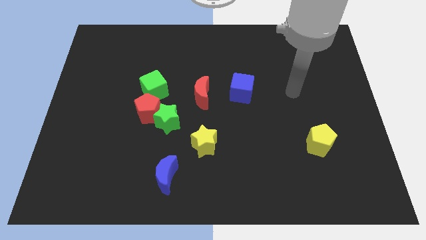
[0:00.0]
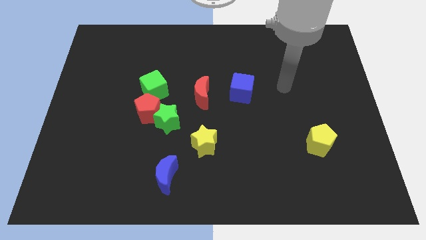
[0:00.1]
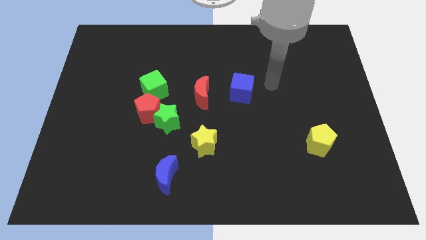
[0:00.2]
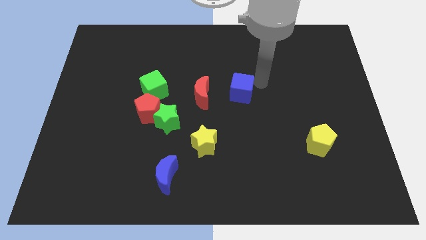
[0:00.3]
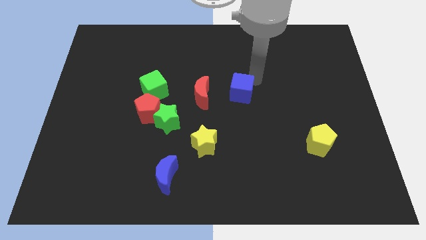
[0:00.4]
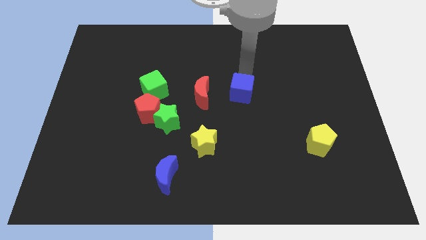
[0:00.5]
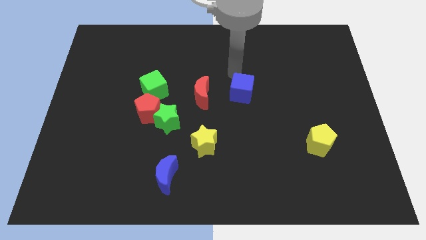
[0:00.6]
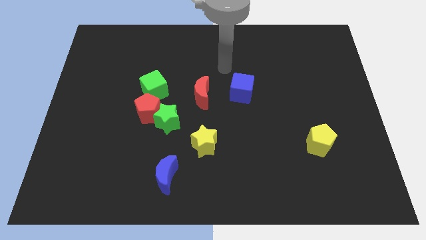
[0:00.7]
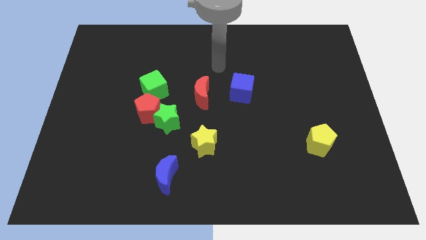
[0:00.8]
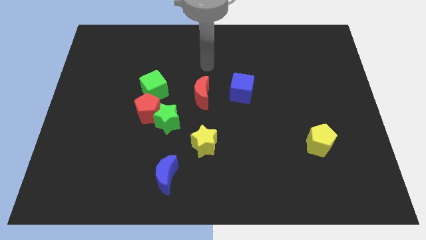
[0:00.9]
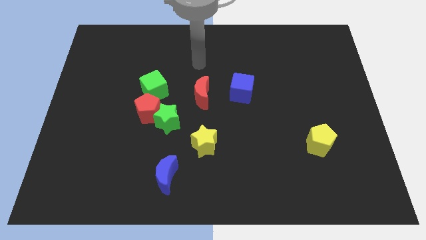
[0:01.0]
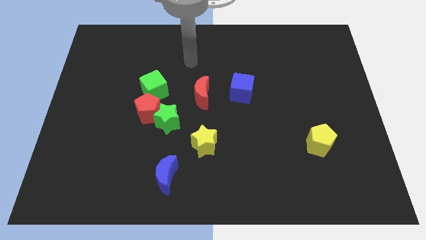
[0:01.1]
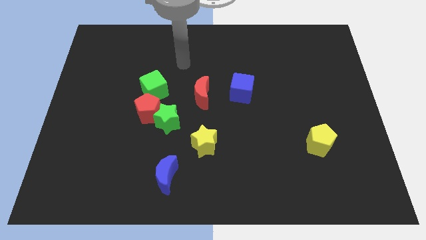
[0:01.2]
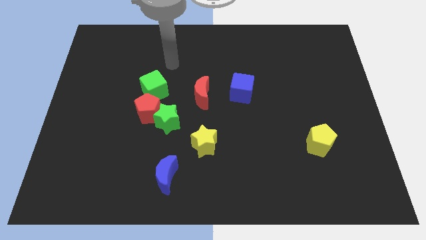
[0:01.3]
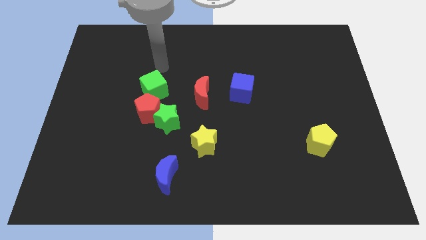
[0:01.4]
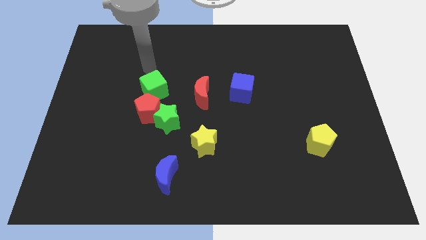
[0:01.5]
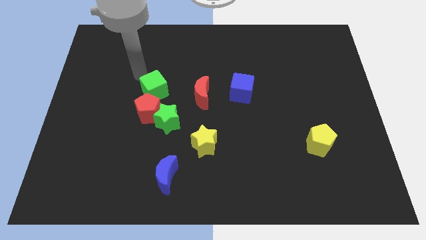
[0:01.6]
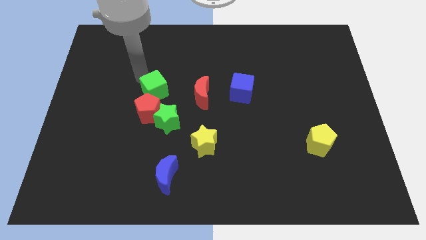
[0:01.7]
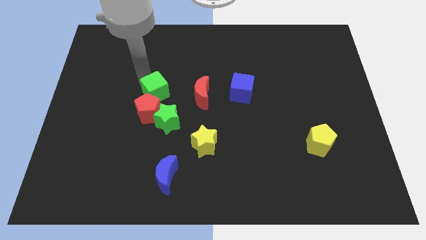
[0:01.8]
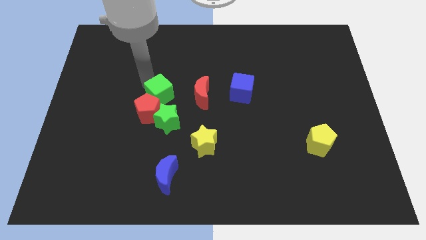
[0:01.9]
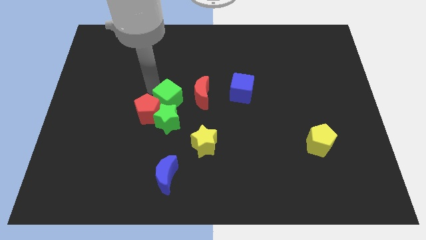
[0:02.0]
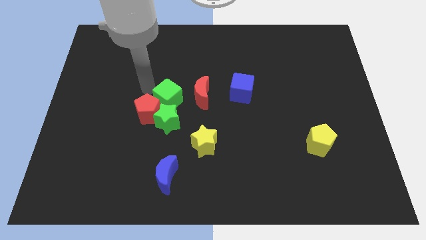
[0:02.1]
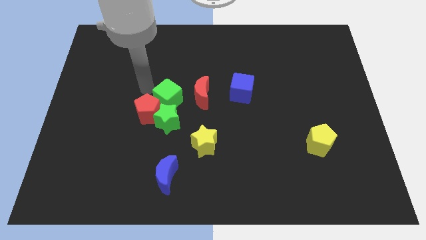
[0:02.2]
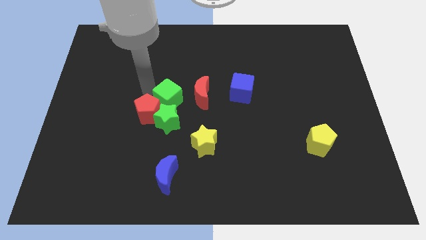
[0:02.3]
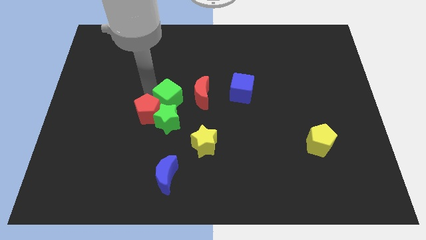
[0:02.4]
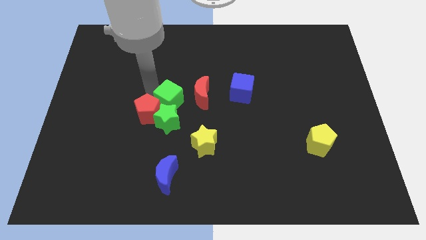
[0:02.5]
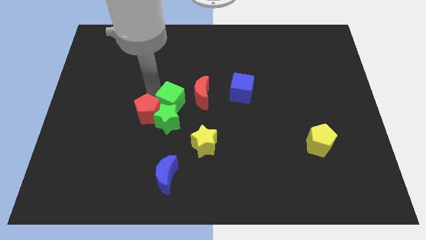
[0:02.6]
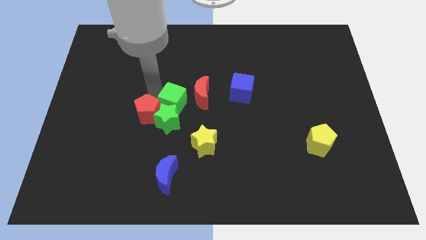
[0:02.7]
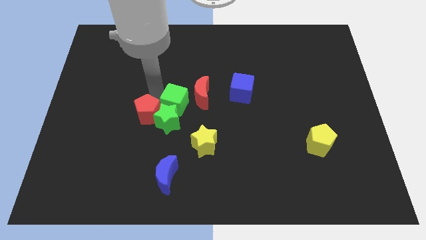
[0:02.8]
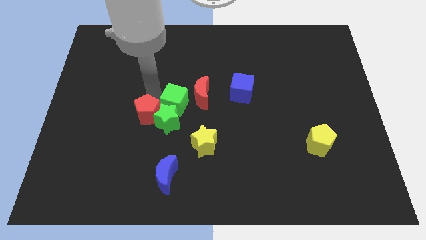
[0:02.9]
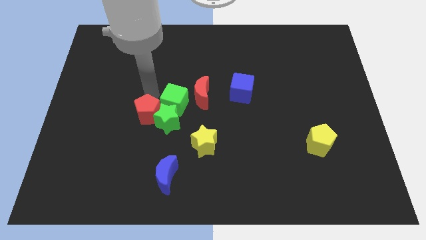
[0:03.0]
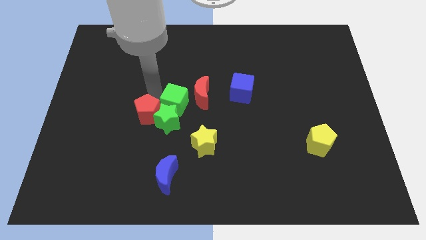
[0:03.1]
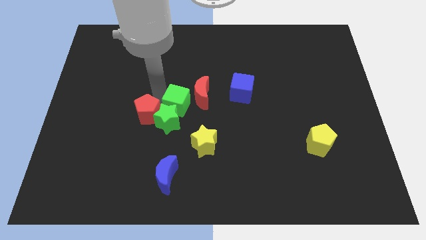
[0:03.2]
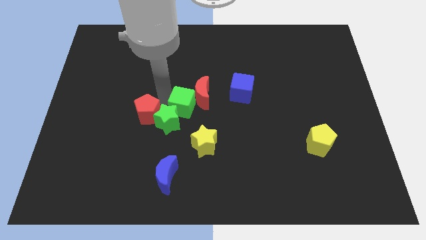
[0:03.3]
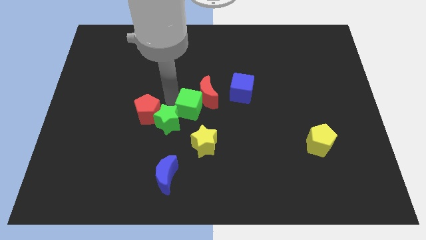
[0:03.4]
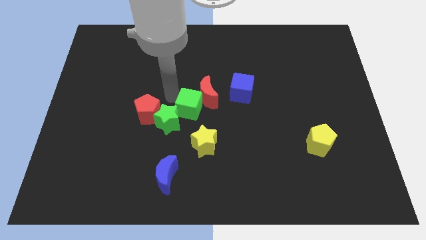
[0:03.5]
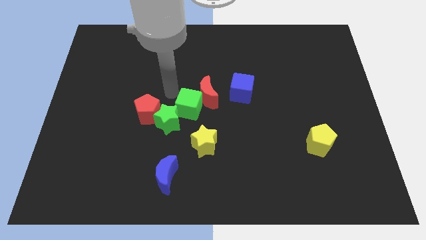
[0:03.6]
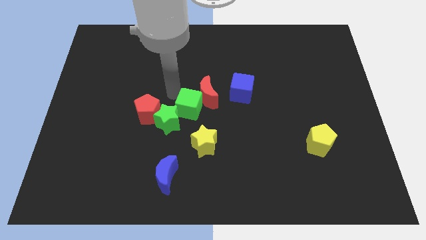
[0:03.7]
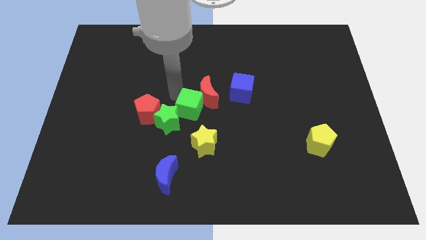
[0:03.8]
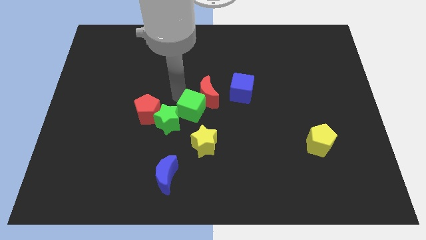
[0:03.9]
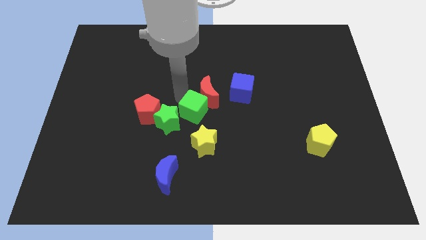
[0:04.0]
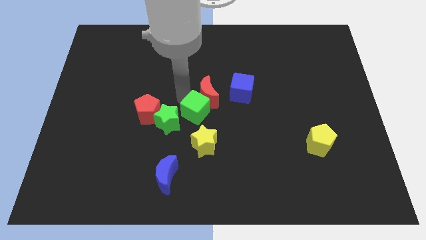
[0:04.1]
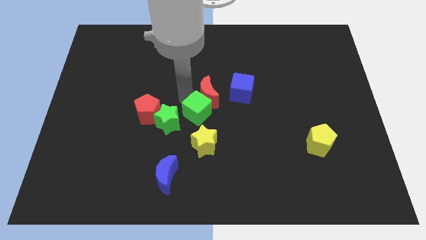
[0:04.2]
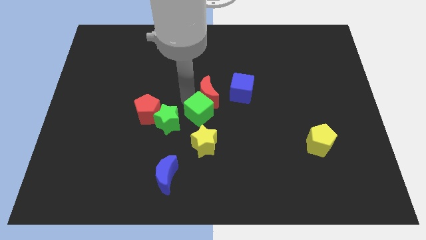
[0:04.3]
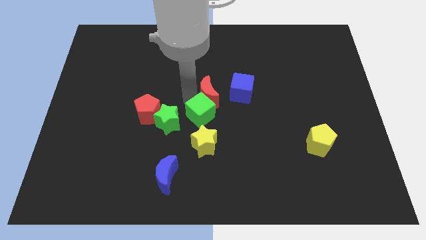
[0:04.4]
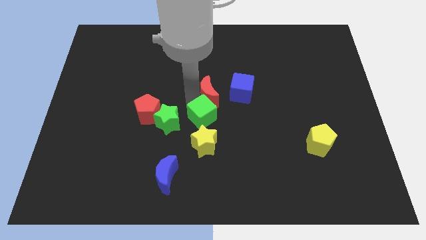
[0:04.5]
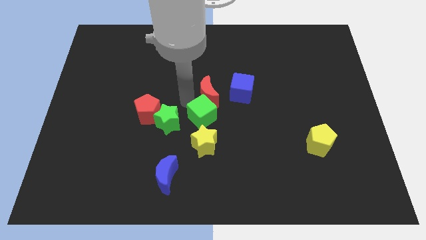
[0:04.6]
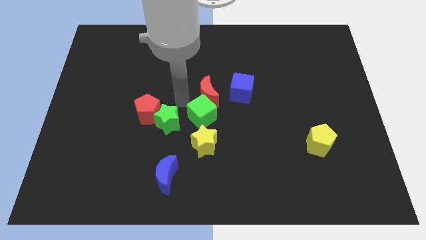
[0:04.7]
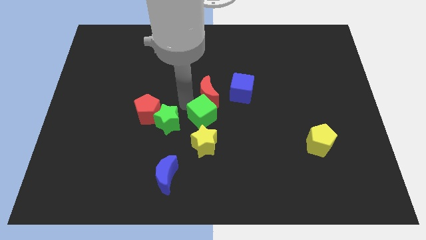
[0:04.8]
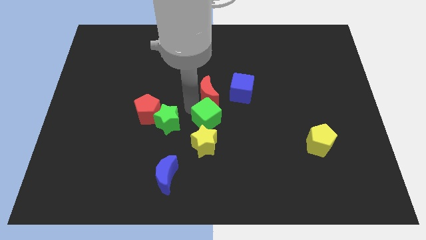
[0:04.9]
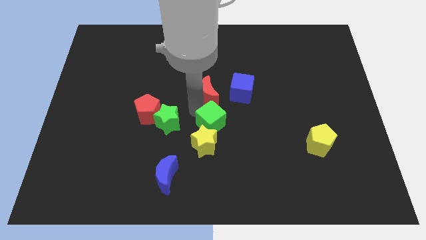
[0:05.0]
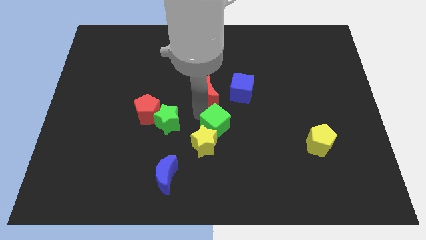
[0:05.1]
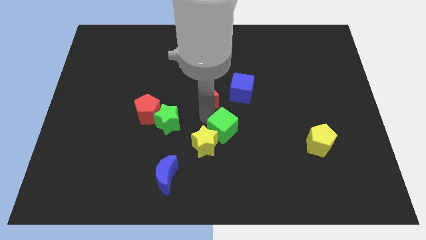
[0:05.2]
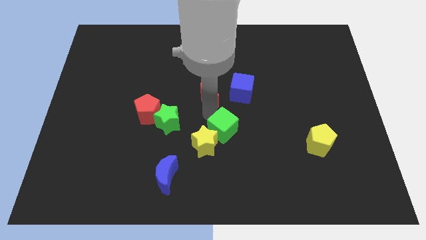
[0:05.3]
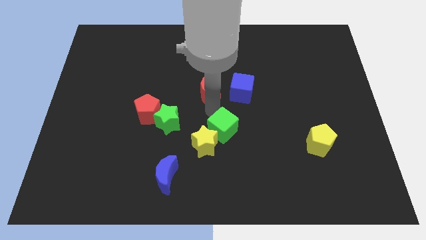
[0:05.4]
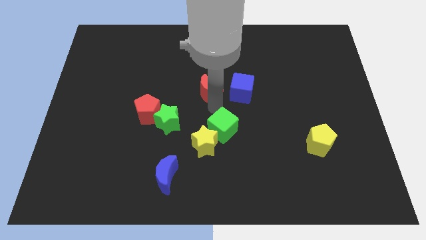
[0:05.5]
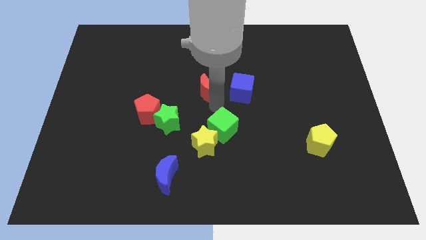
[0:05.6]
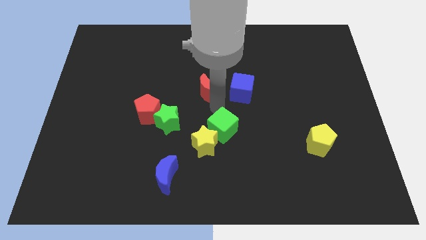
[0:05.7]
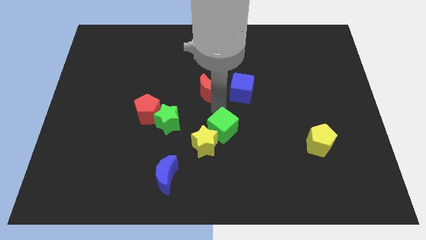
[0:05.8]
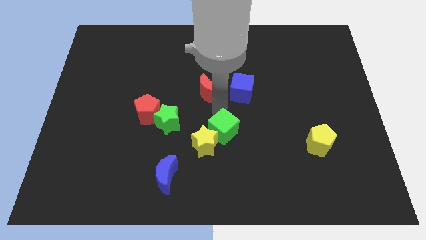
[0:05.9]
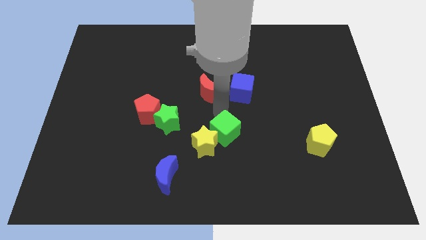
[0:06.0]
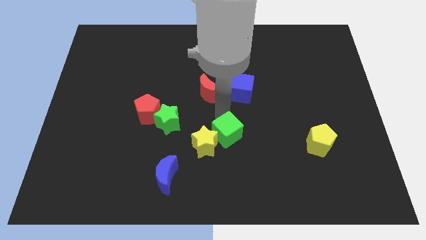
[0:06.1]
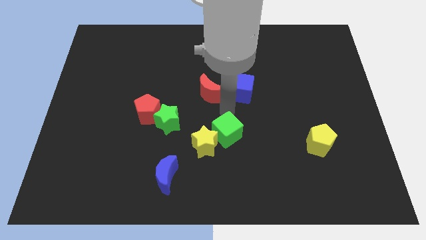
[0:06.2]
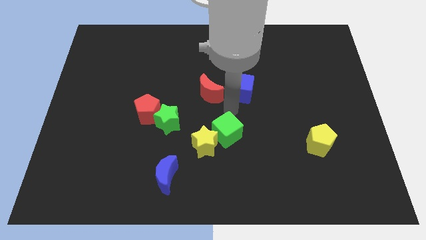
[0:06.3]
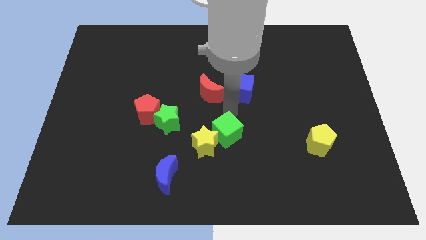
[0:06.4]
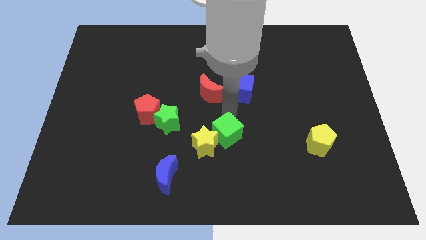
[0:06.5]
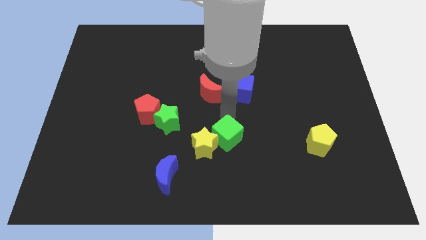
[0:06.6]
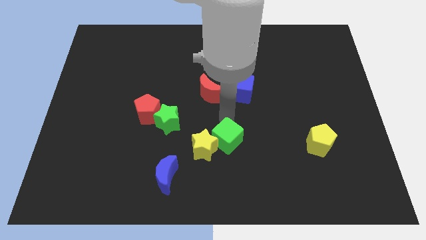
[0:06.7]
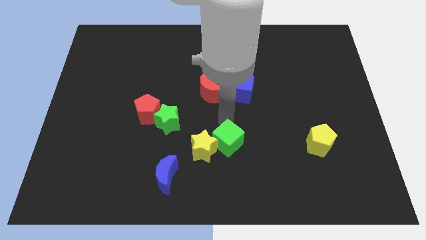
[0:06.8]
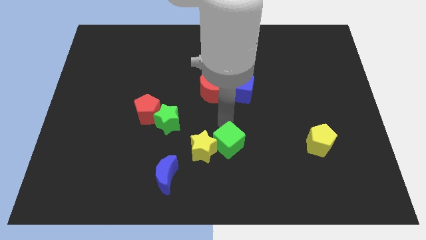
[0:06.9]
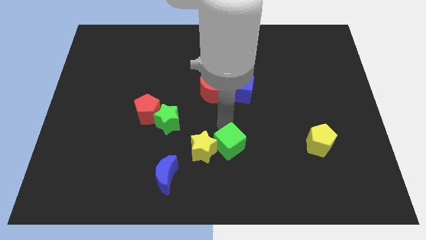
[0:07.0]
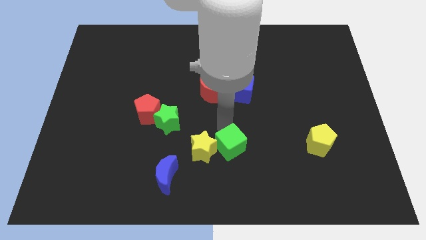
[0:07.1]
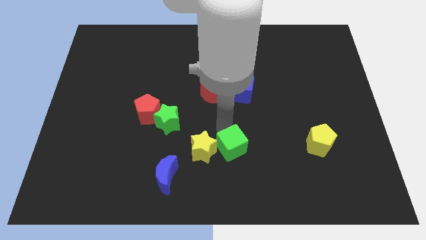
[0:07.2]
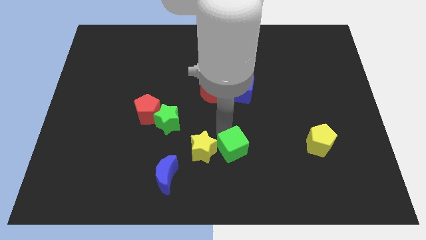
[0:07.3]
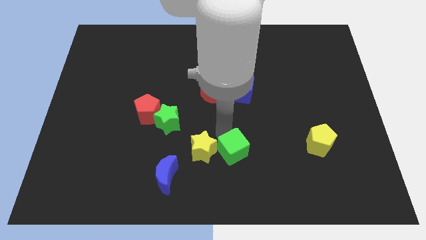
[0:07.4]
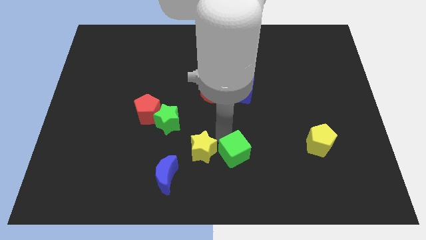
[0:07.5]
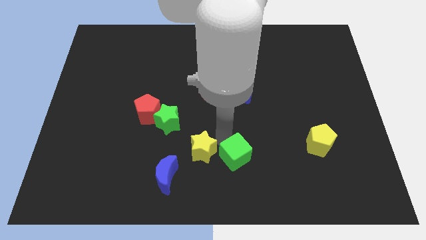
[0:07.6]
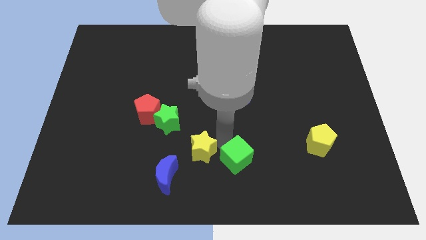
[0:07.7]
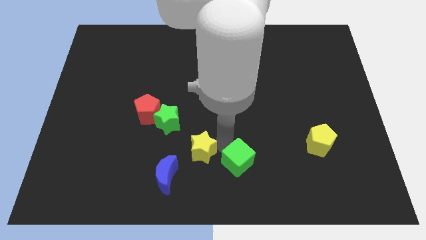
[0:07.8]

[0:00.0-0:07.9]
put the green cube to the right of the blue moon

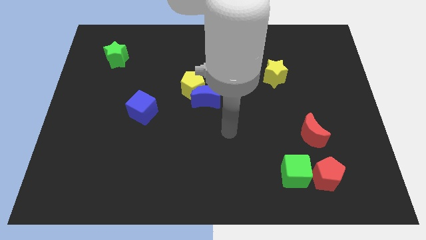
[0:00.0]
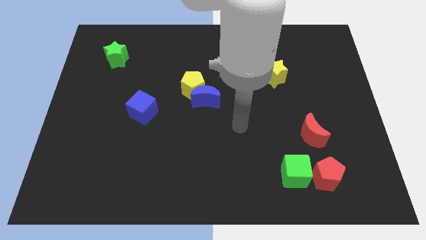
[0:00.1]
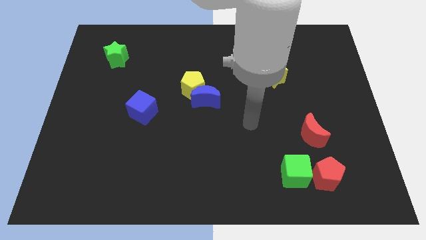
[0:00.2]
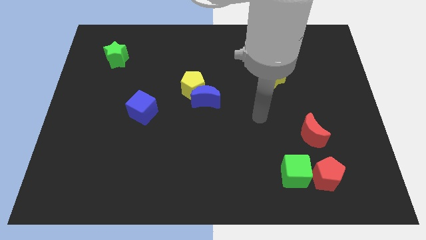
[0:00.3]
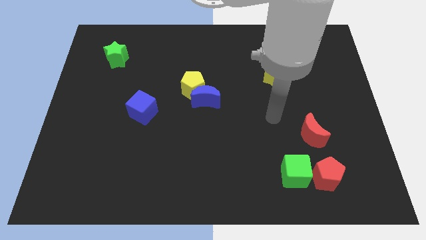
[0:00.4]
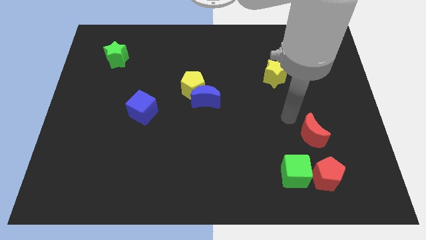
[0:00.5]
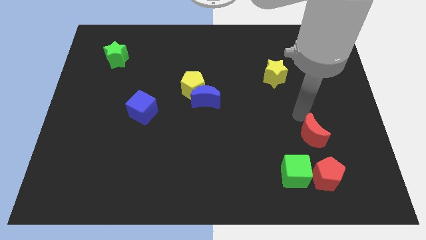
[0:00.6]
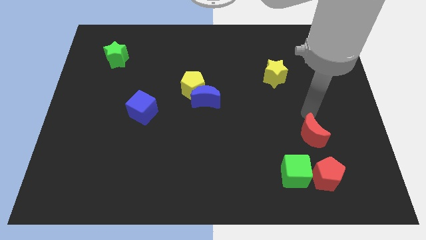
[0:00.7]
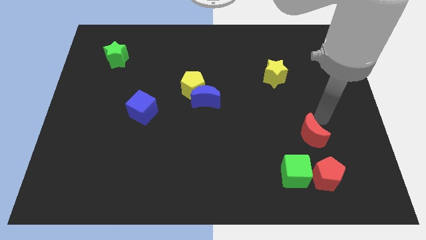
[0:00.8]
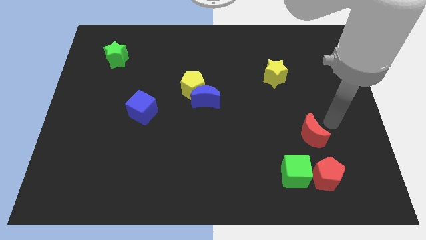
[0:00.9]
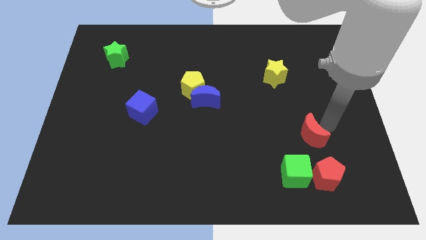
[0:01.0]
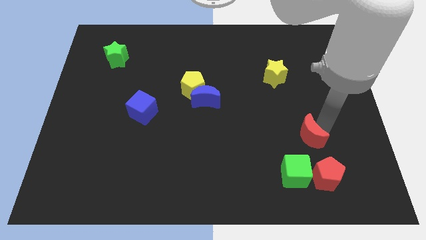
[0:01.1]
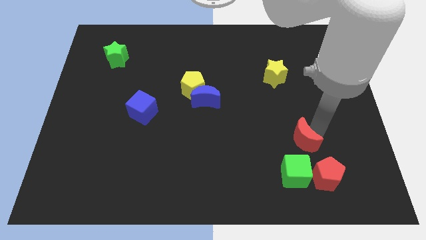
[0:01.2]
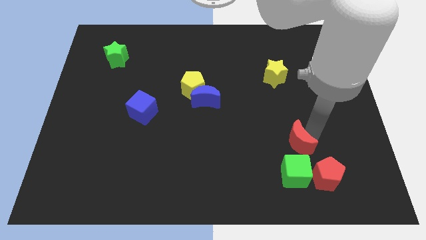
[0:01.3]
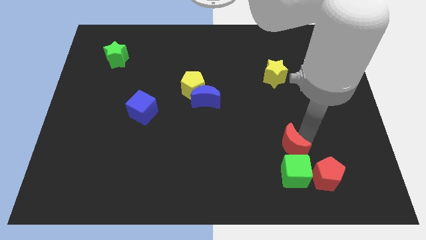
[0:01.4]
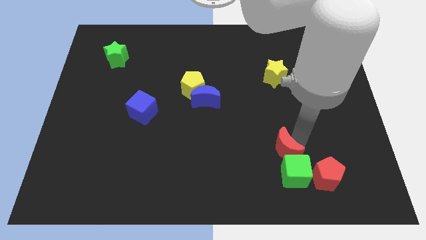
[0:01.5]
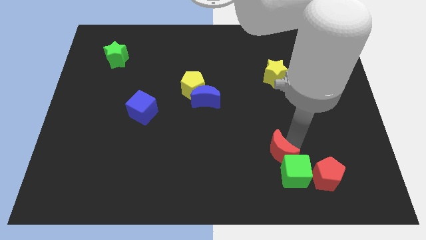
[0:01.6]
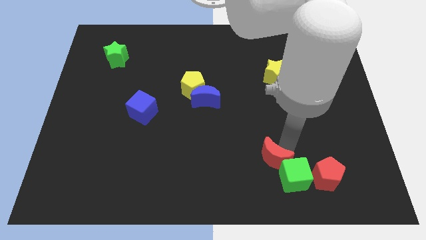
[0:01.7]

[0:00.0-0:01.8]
move the red moon just left of the green cube
